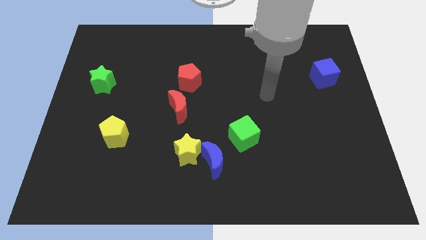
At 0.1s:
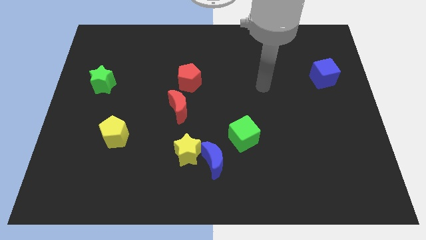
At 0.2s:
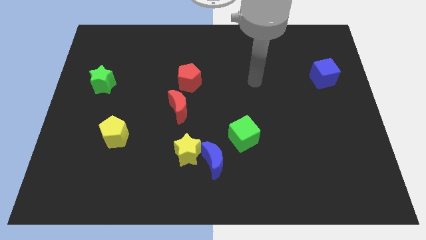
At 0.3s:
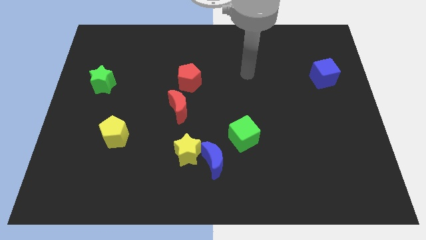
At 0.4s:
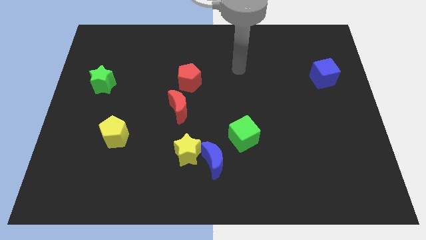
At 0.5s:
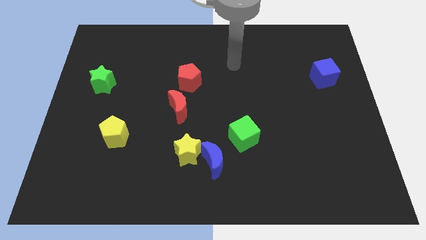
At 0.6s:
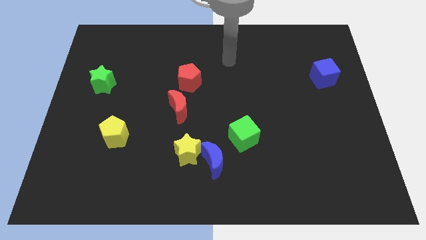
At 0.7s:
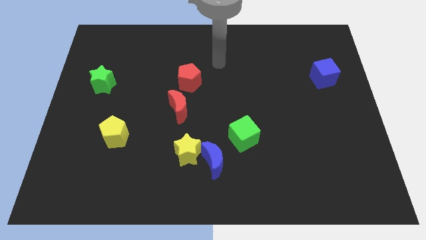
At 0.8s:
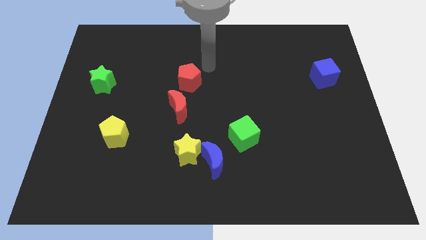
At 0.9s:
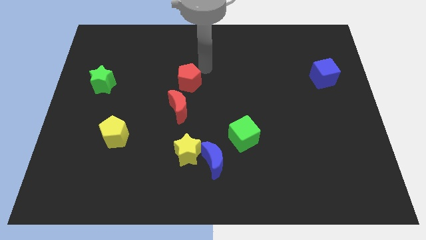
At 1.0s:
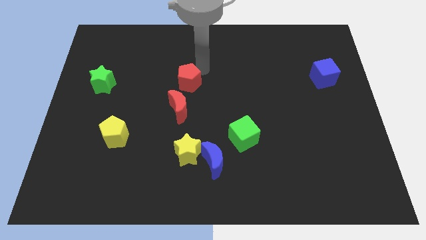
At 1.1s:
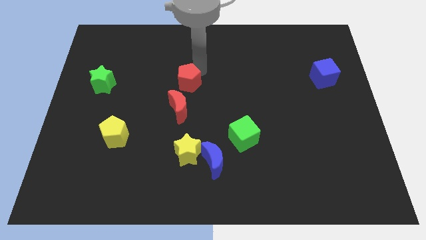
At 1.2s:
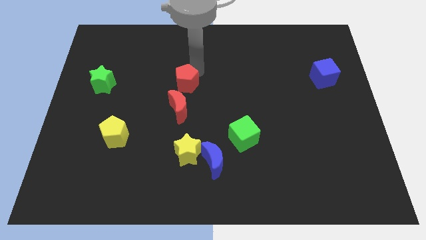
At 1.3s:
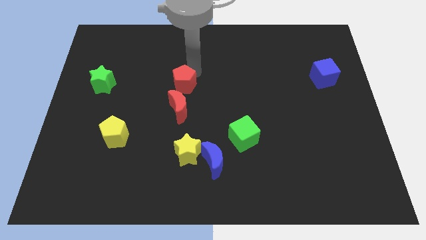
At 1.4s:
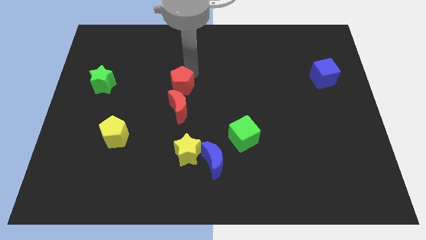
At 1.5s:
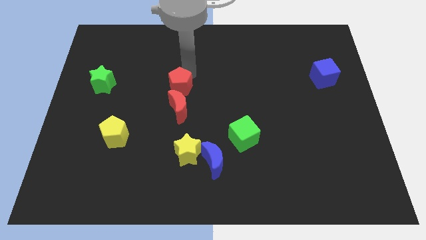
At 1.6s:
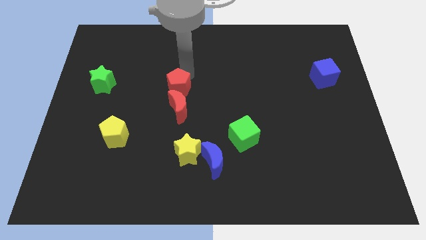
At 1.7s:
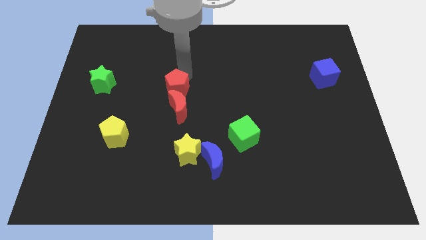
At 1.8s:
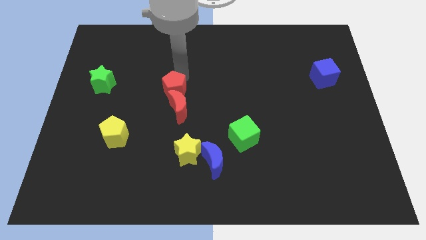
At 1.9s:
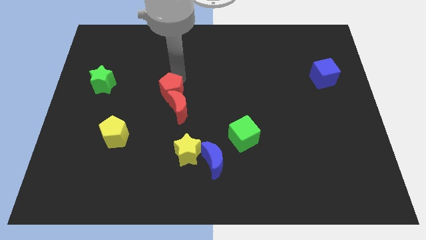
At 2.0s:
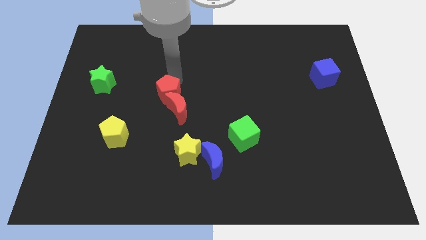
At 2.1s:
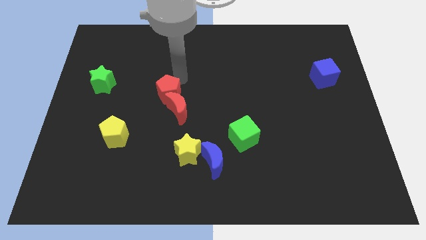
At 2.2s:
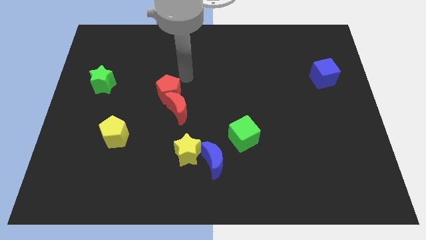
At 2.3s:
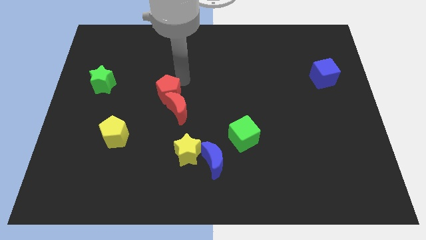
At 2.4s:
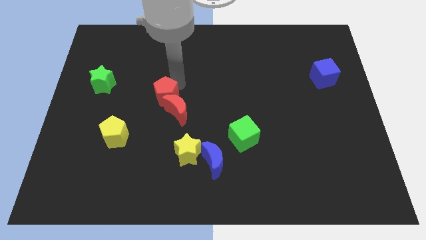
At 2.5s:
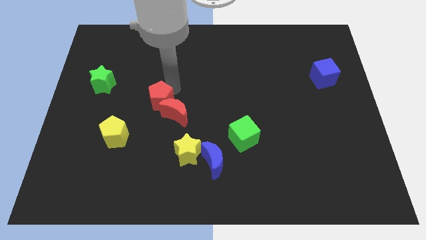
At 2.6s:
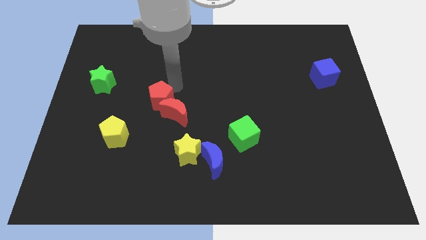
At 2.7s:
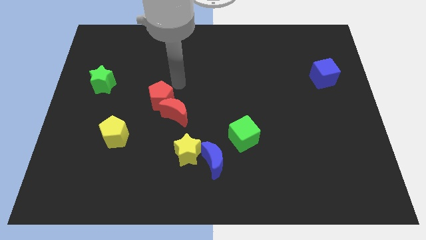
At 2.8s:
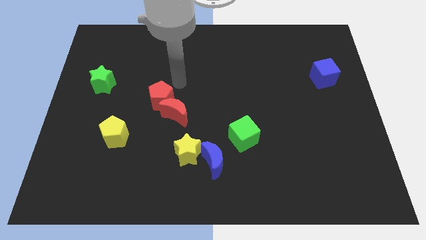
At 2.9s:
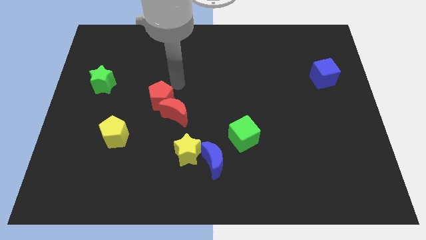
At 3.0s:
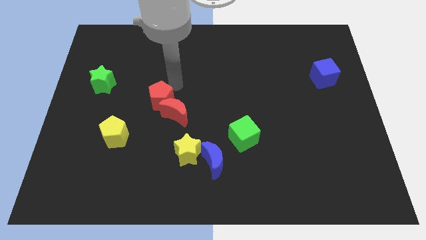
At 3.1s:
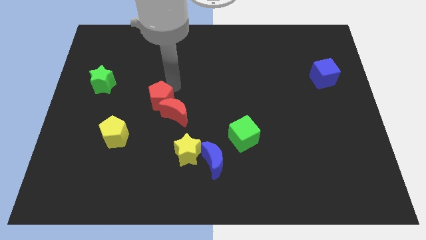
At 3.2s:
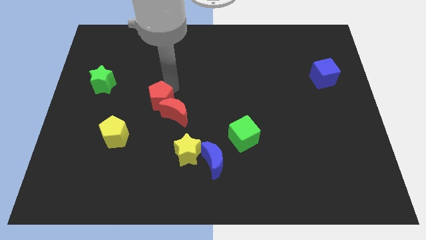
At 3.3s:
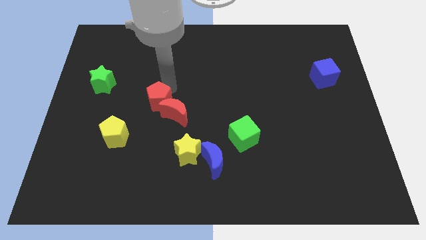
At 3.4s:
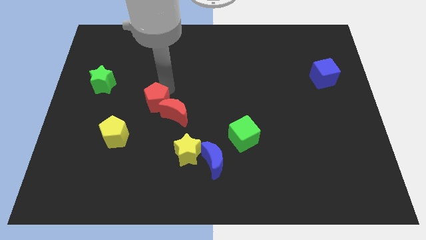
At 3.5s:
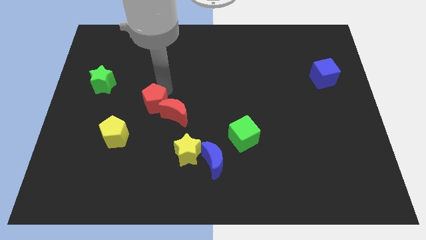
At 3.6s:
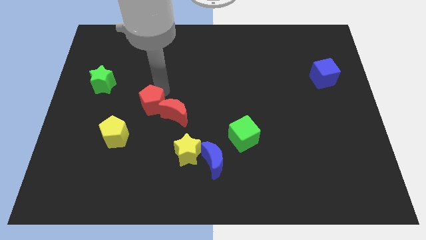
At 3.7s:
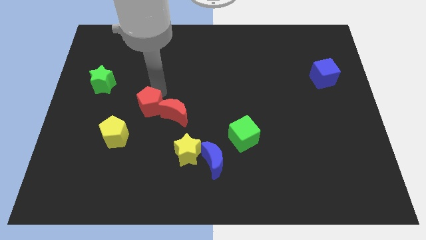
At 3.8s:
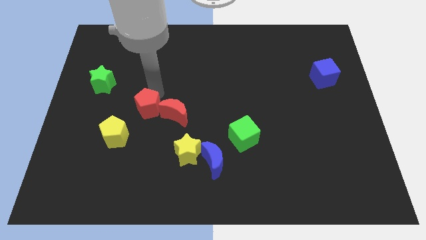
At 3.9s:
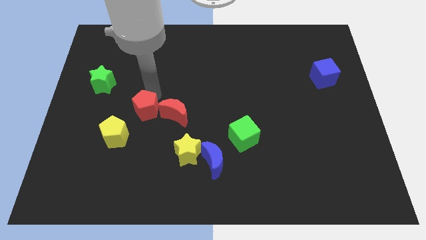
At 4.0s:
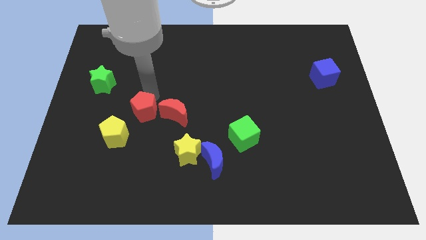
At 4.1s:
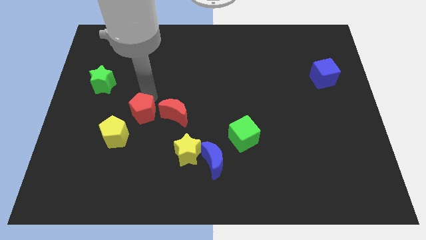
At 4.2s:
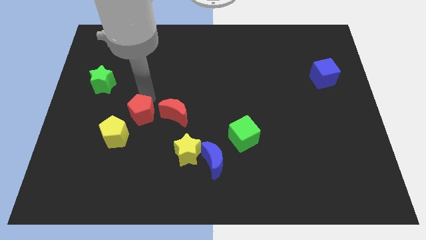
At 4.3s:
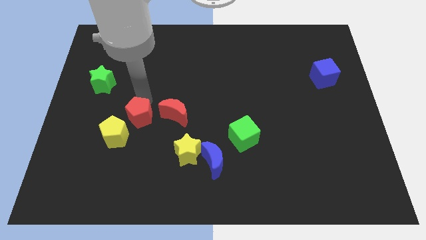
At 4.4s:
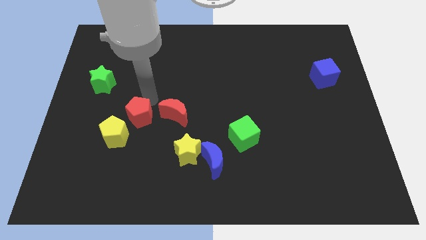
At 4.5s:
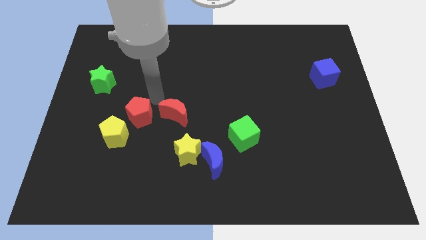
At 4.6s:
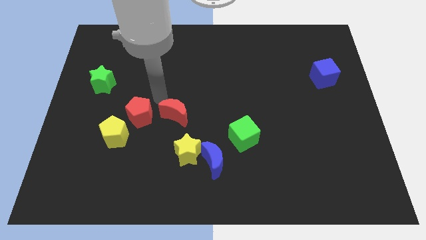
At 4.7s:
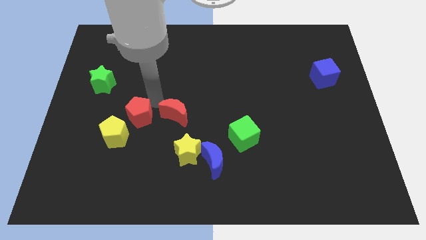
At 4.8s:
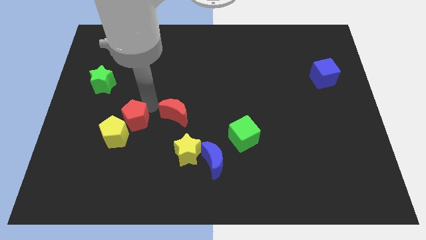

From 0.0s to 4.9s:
slide the red pentagon towards the yellow pentagon

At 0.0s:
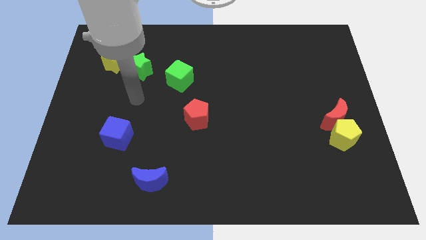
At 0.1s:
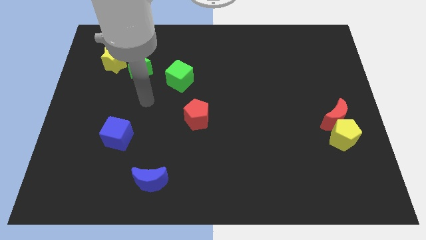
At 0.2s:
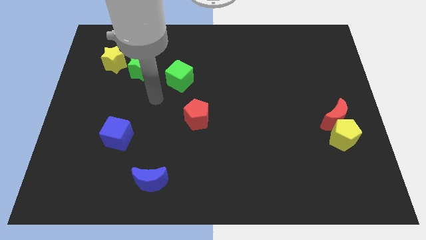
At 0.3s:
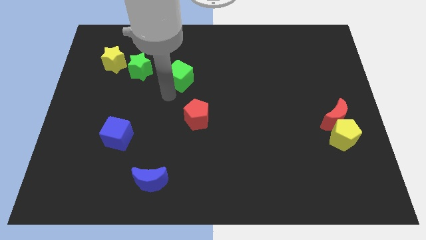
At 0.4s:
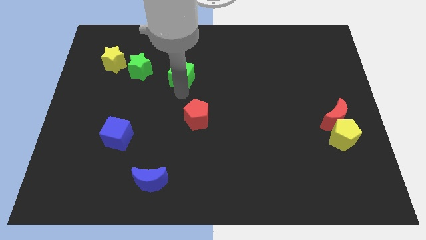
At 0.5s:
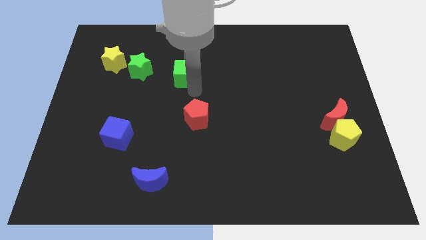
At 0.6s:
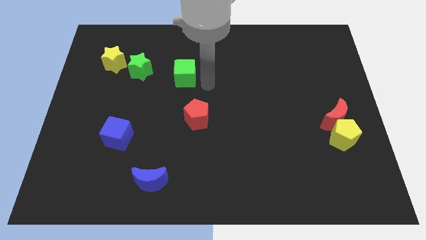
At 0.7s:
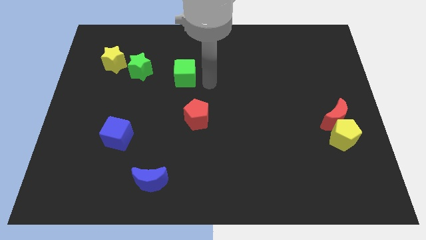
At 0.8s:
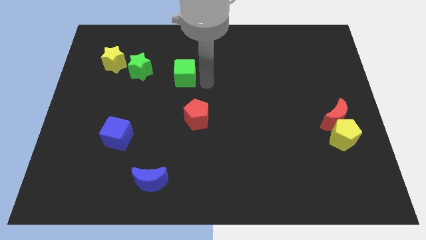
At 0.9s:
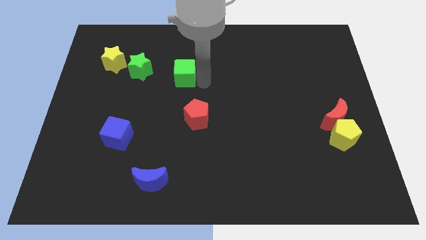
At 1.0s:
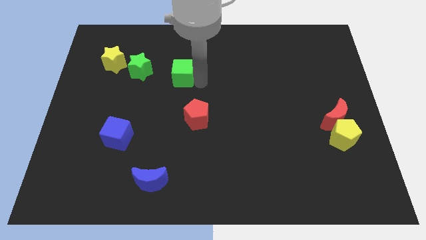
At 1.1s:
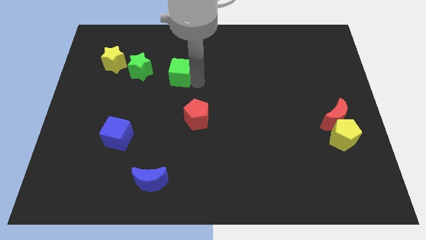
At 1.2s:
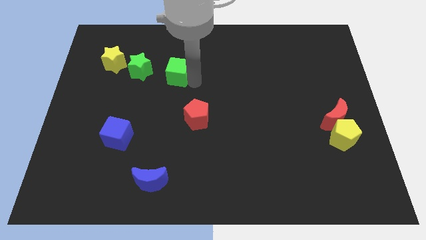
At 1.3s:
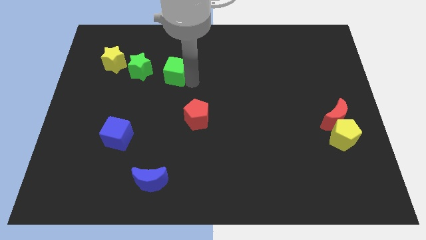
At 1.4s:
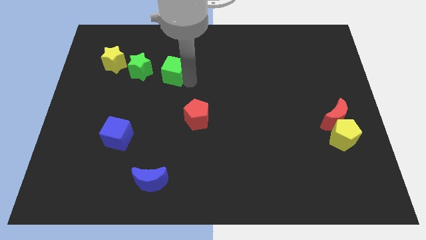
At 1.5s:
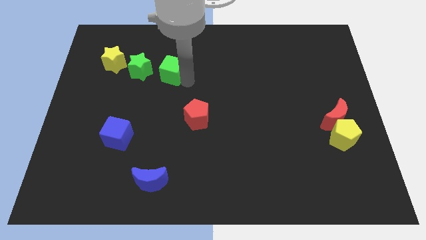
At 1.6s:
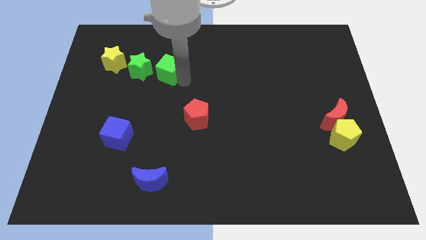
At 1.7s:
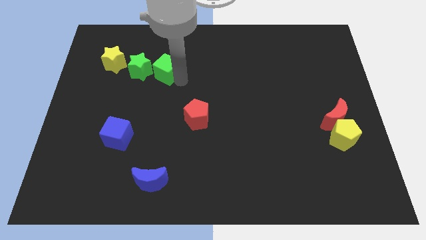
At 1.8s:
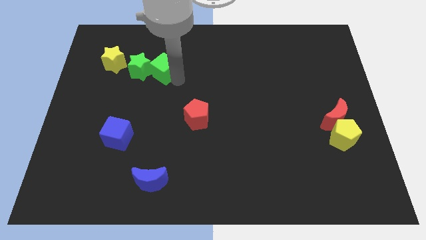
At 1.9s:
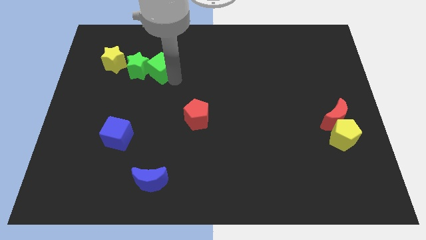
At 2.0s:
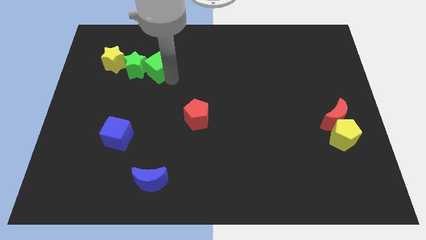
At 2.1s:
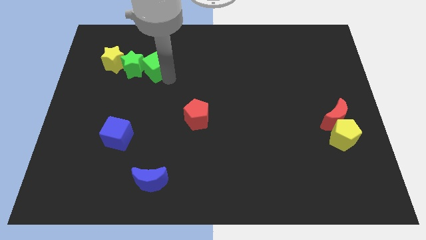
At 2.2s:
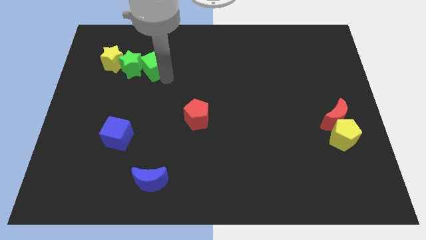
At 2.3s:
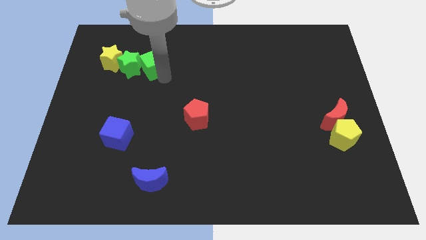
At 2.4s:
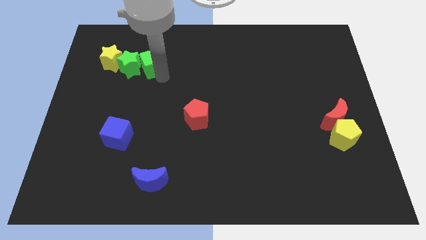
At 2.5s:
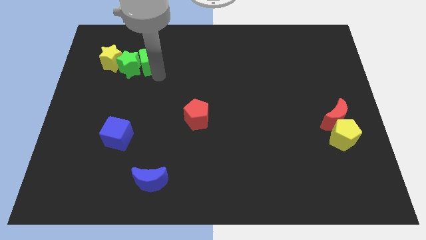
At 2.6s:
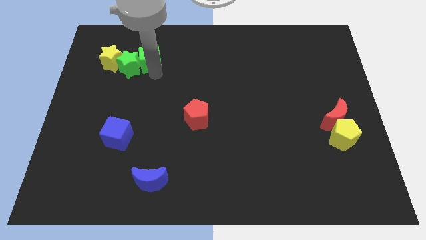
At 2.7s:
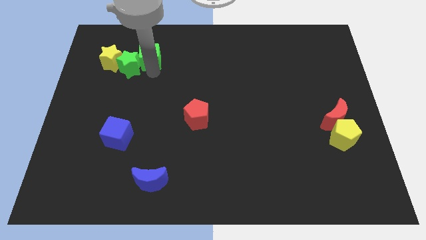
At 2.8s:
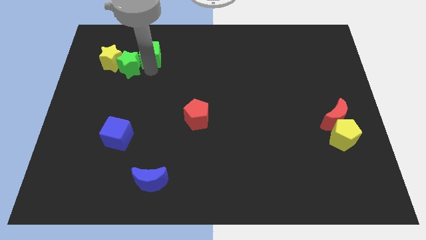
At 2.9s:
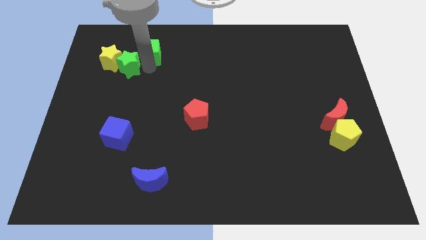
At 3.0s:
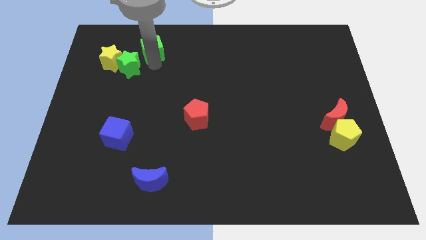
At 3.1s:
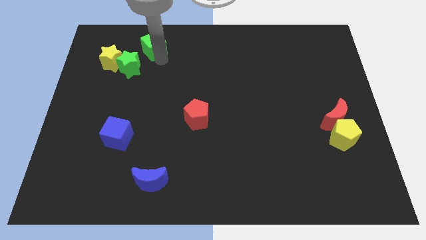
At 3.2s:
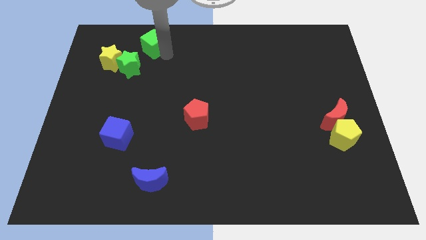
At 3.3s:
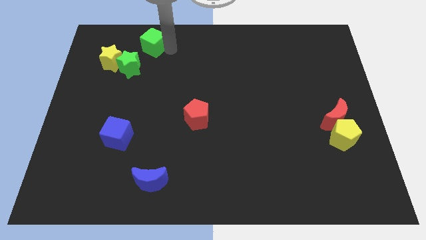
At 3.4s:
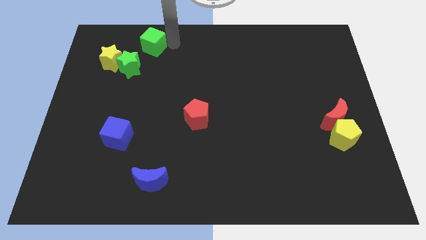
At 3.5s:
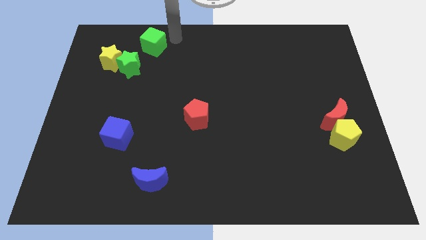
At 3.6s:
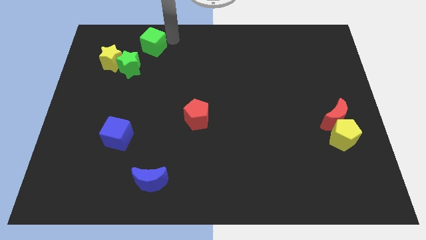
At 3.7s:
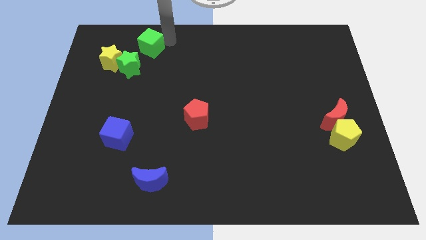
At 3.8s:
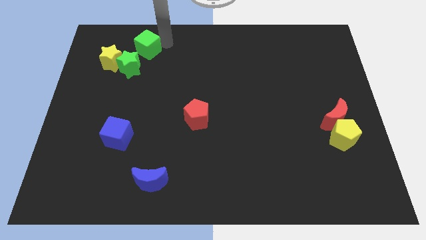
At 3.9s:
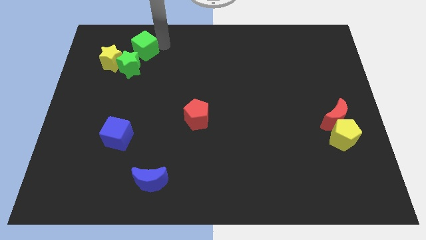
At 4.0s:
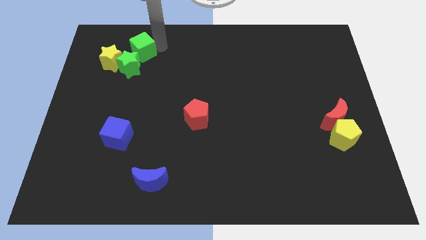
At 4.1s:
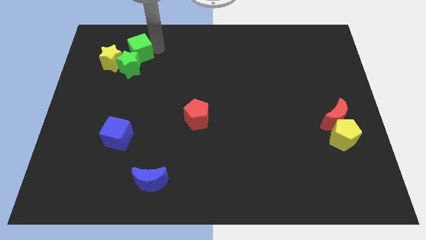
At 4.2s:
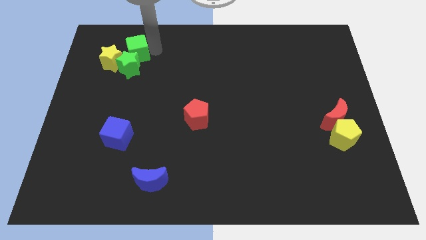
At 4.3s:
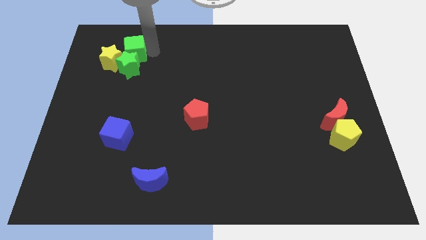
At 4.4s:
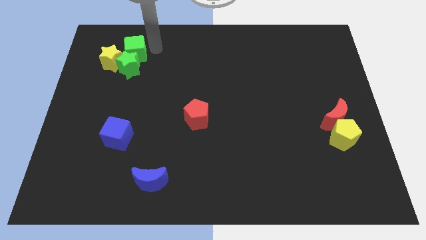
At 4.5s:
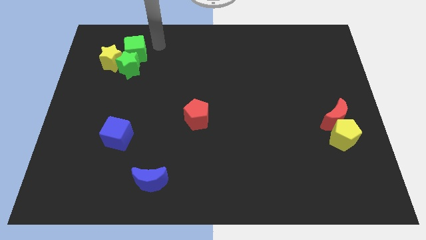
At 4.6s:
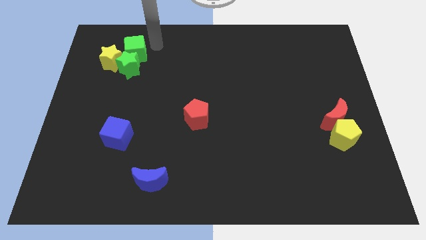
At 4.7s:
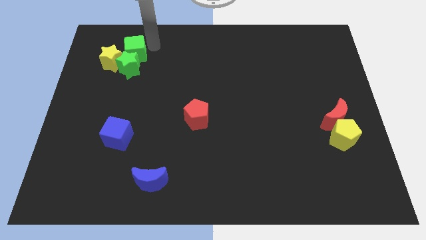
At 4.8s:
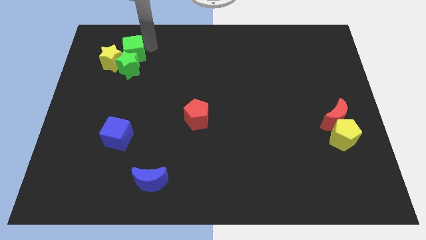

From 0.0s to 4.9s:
move the green cube close to the yellow star
